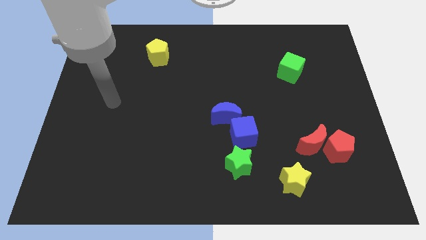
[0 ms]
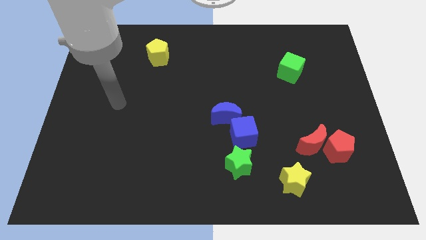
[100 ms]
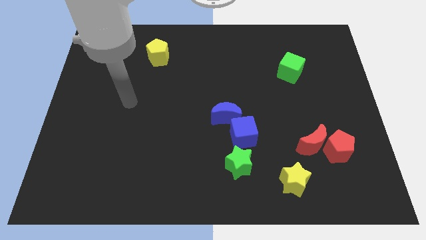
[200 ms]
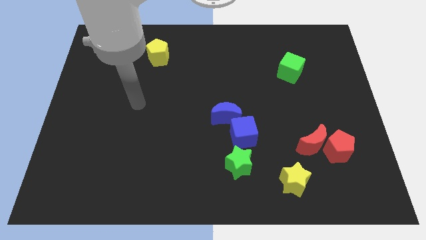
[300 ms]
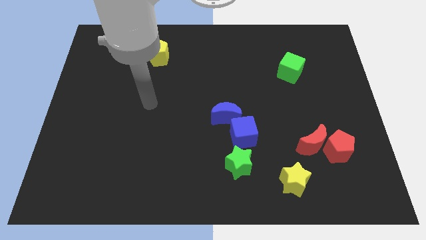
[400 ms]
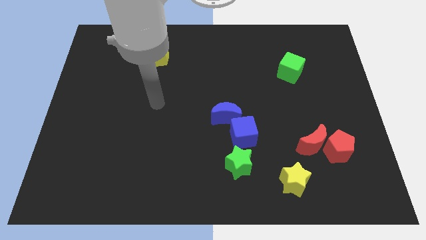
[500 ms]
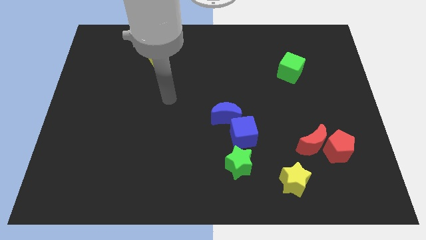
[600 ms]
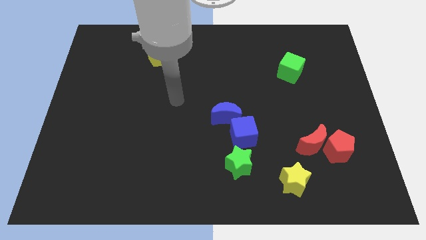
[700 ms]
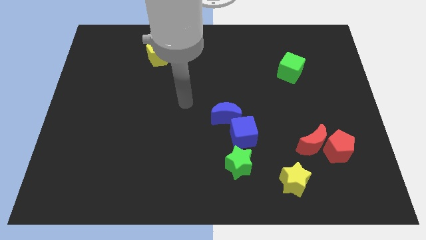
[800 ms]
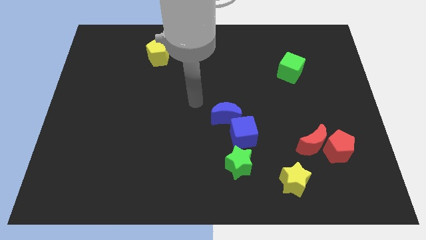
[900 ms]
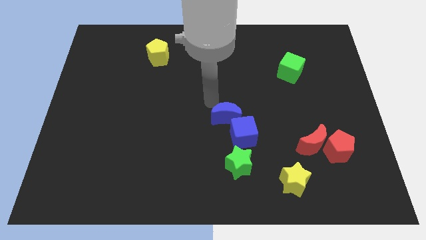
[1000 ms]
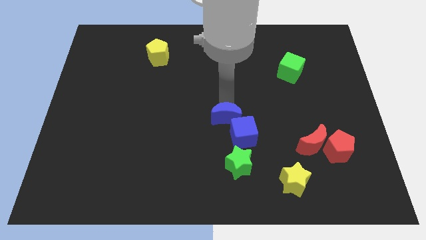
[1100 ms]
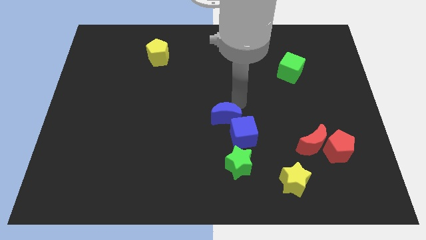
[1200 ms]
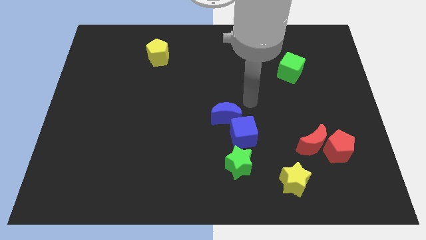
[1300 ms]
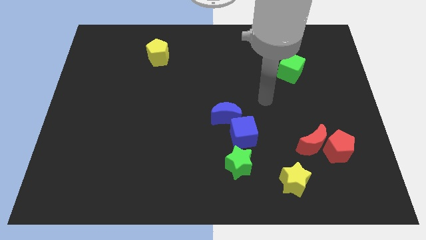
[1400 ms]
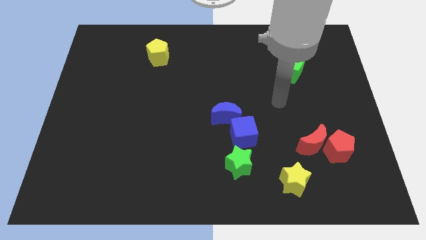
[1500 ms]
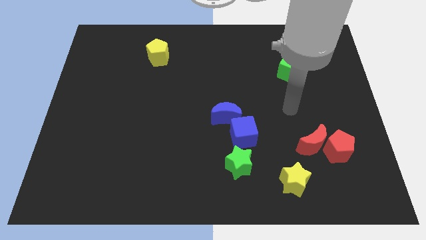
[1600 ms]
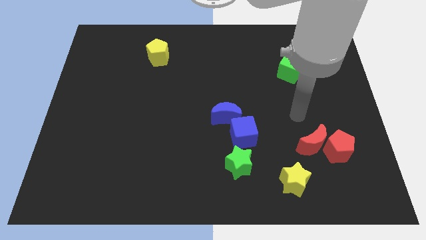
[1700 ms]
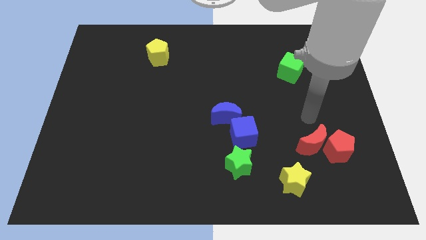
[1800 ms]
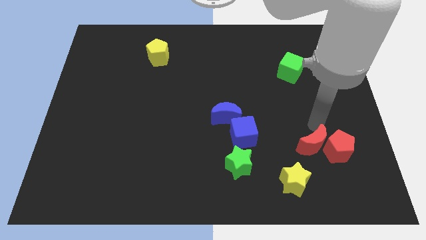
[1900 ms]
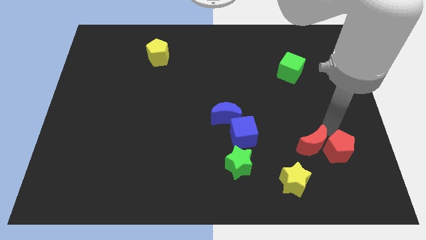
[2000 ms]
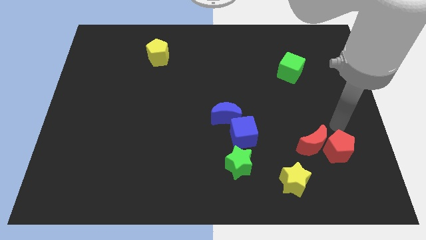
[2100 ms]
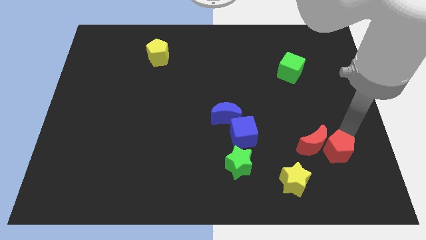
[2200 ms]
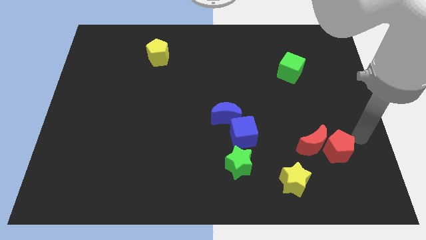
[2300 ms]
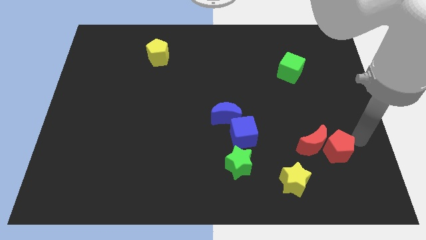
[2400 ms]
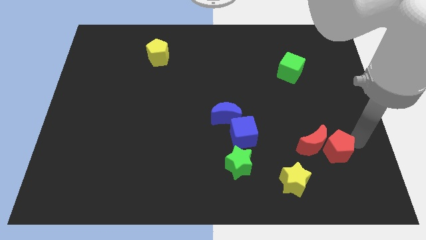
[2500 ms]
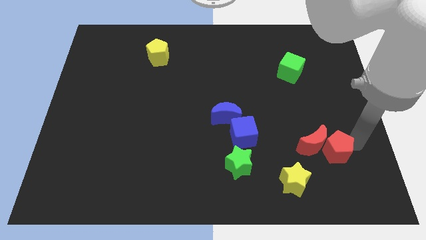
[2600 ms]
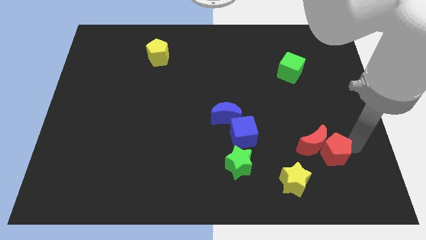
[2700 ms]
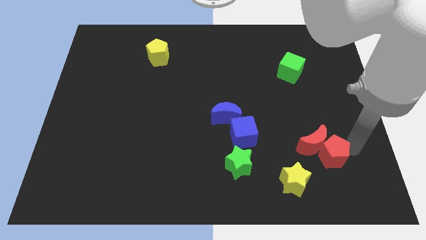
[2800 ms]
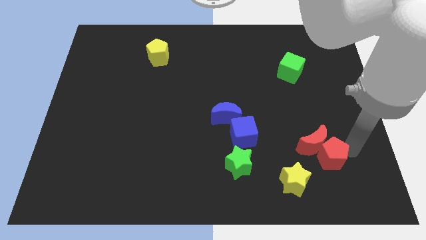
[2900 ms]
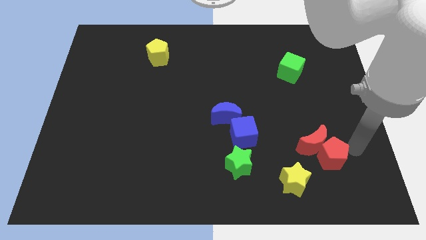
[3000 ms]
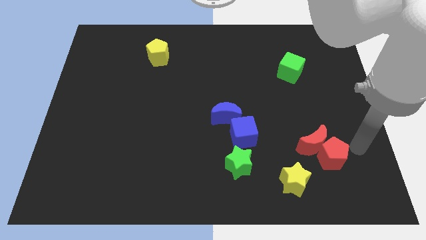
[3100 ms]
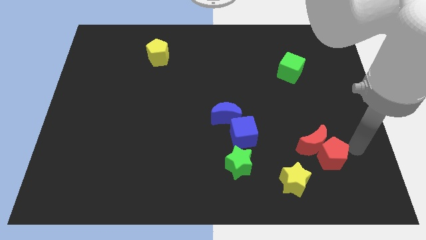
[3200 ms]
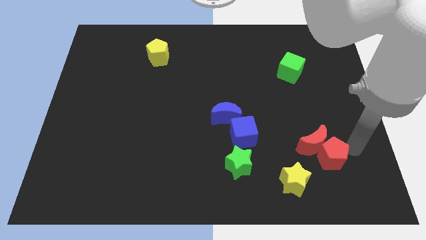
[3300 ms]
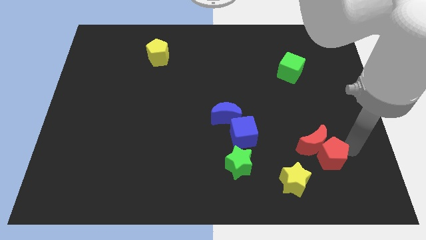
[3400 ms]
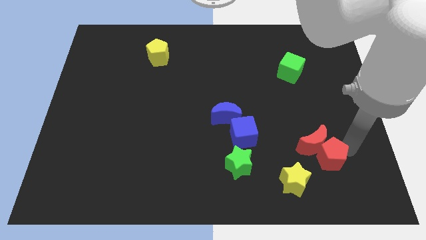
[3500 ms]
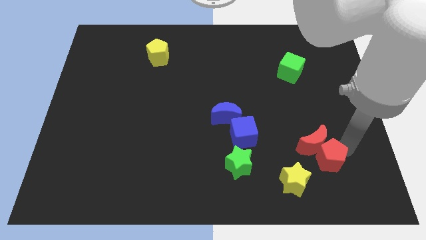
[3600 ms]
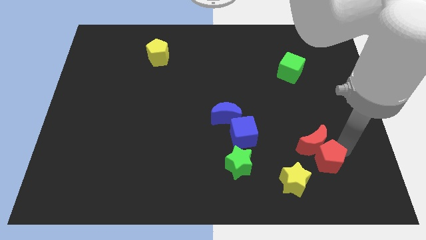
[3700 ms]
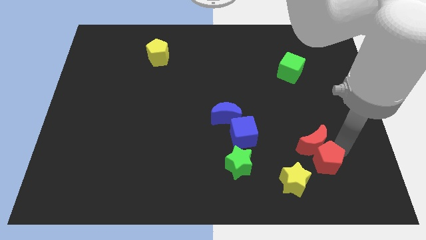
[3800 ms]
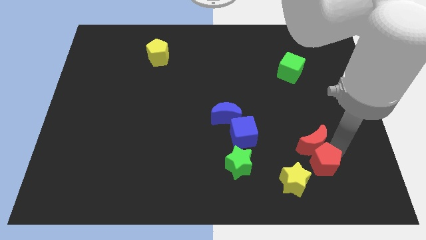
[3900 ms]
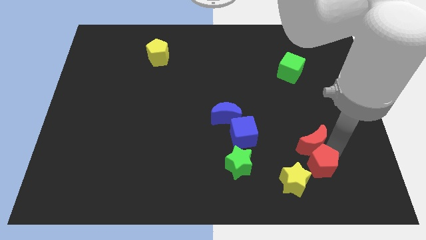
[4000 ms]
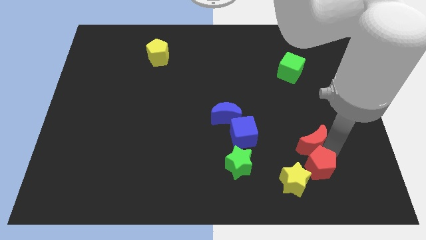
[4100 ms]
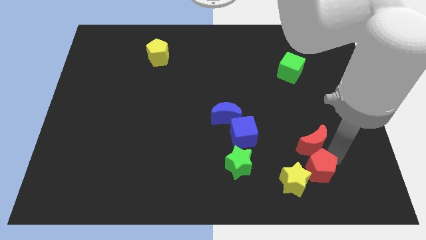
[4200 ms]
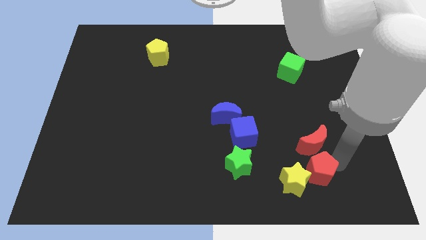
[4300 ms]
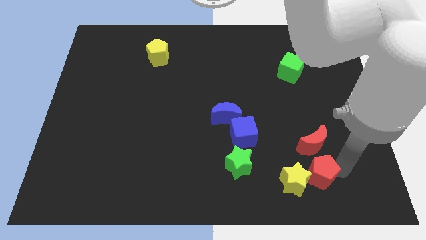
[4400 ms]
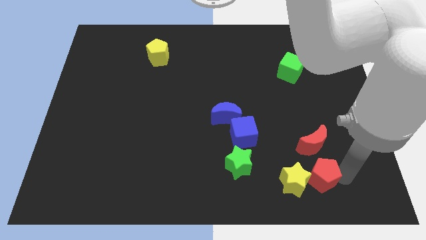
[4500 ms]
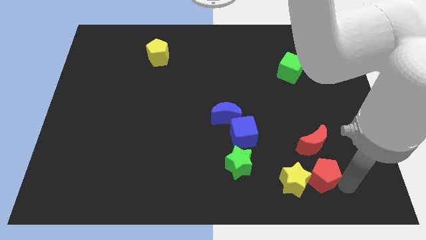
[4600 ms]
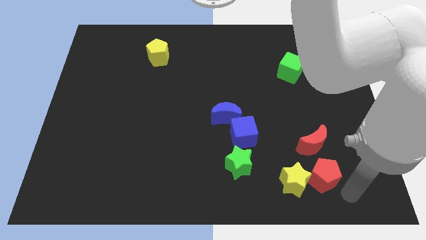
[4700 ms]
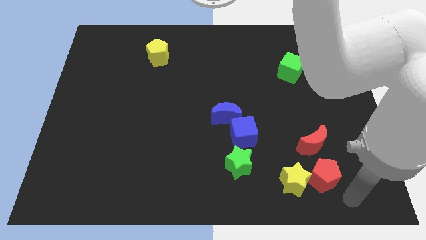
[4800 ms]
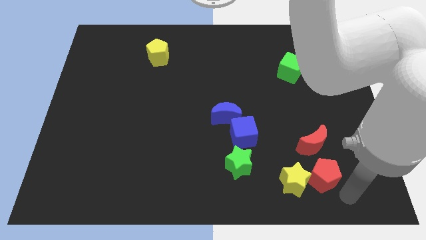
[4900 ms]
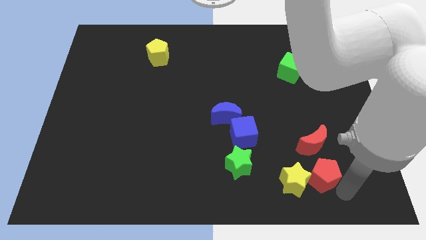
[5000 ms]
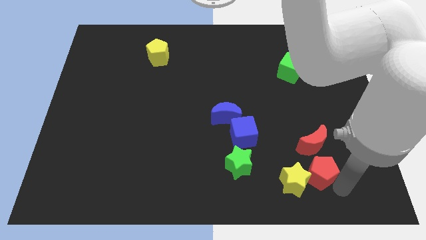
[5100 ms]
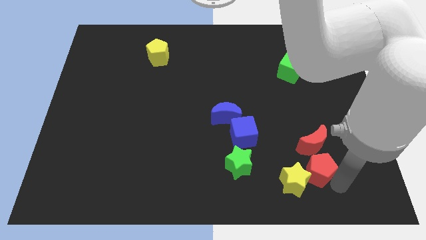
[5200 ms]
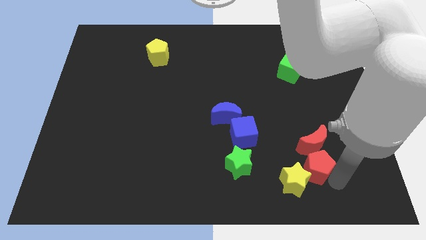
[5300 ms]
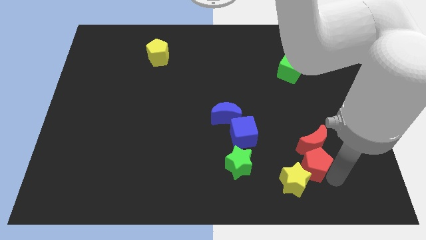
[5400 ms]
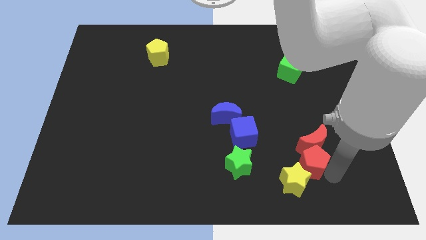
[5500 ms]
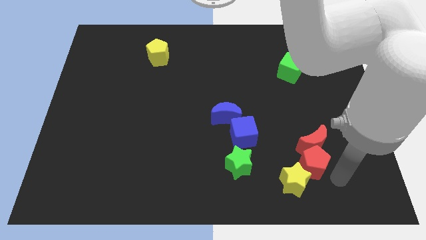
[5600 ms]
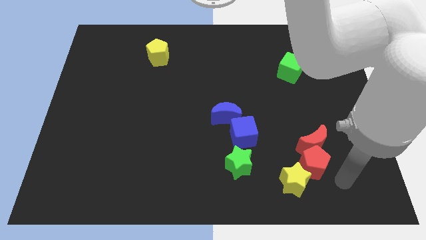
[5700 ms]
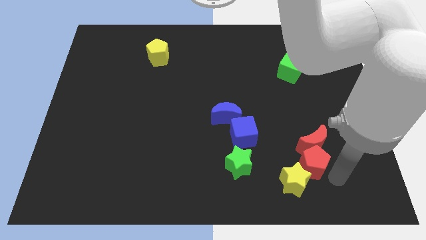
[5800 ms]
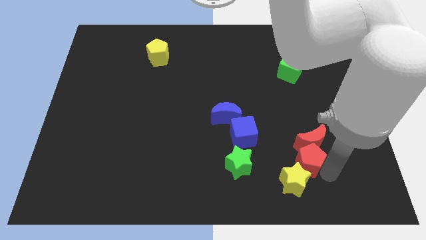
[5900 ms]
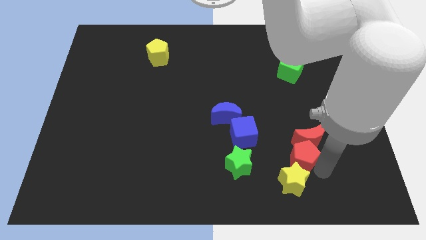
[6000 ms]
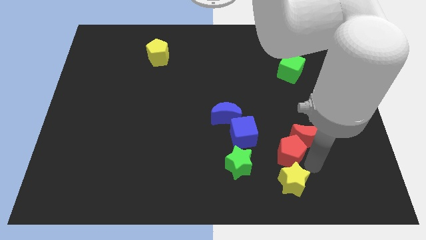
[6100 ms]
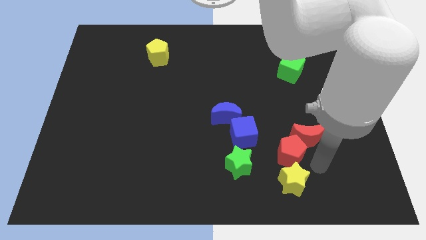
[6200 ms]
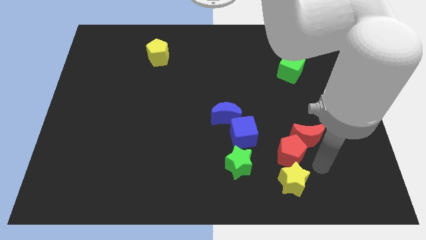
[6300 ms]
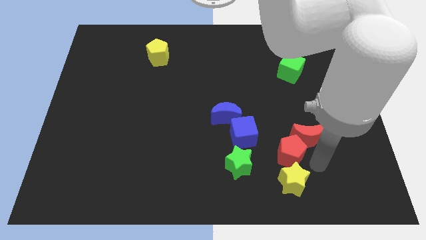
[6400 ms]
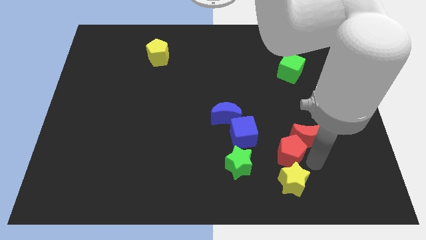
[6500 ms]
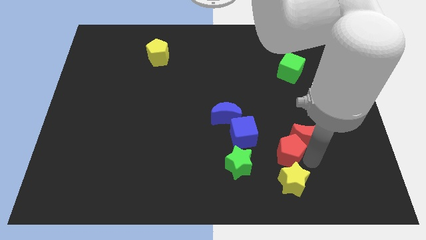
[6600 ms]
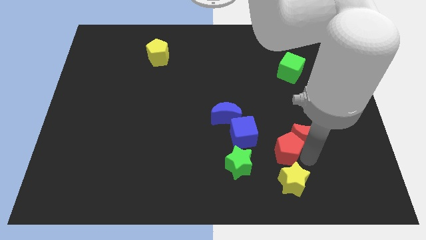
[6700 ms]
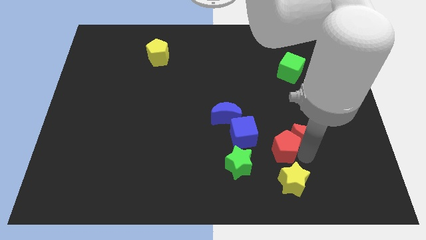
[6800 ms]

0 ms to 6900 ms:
slide the red pentagon to the top right of the green star

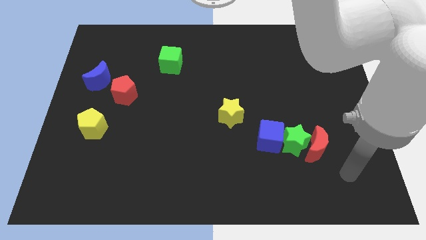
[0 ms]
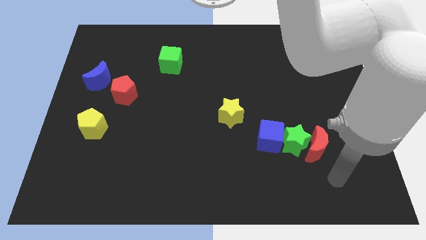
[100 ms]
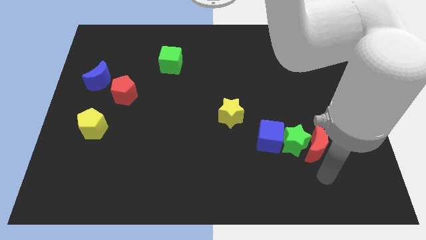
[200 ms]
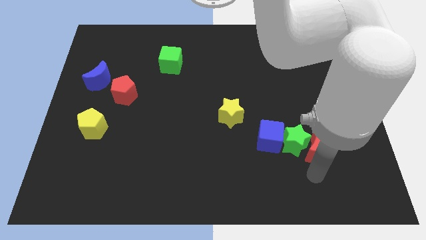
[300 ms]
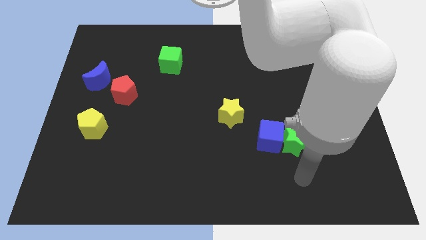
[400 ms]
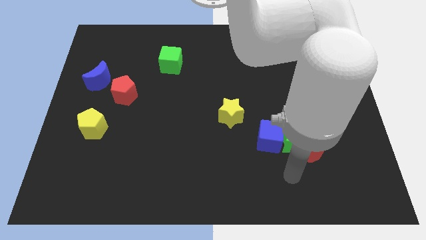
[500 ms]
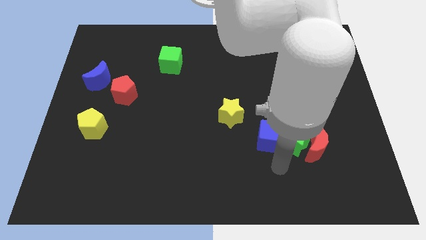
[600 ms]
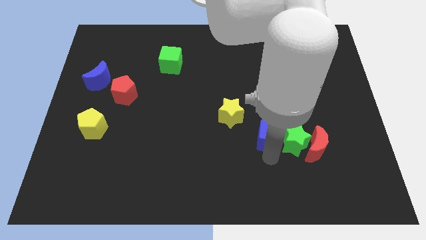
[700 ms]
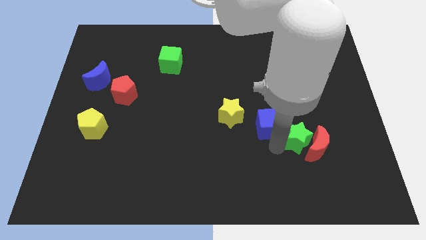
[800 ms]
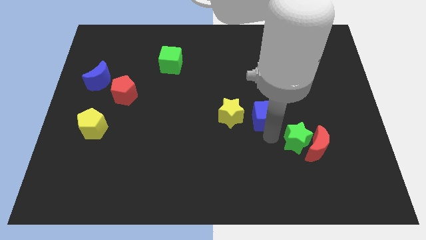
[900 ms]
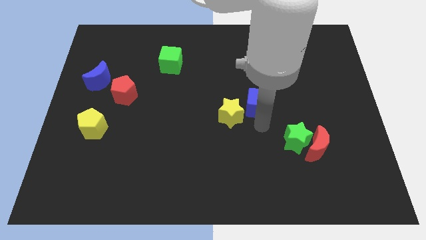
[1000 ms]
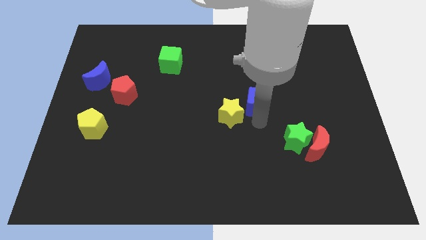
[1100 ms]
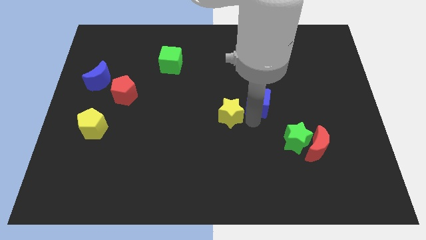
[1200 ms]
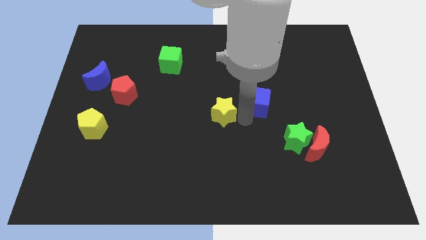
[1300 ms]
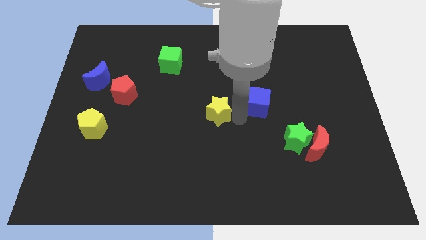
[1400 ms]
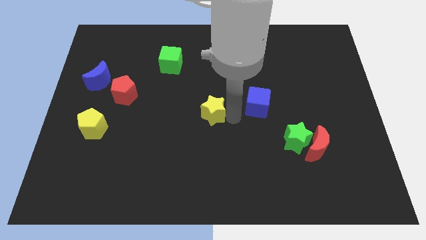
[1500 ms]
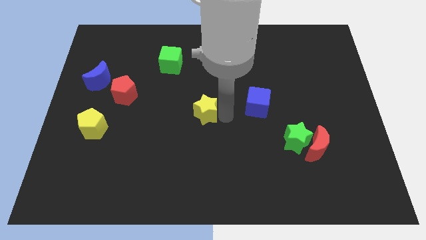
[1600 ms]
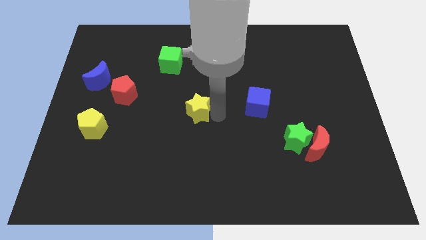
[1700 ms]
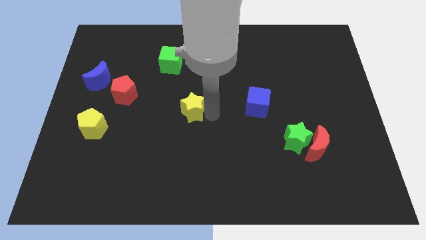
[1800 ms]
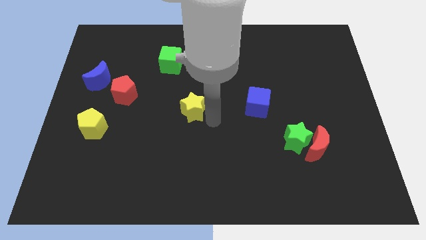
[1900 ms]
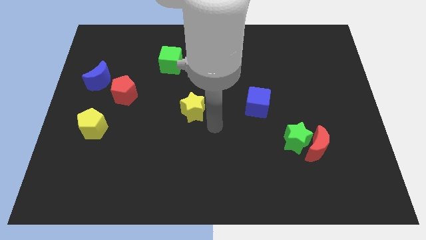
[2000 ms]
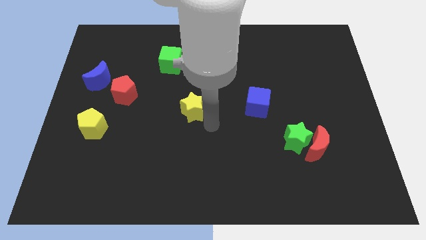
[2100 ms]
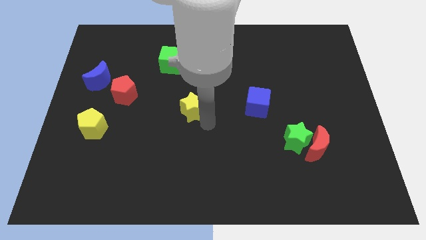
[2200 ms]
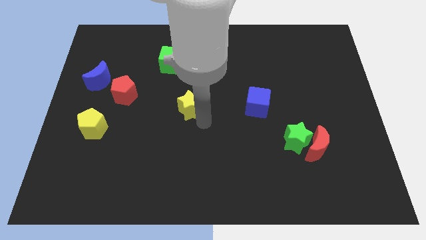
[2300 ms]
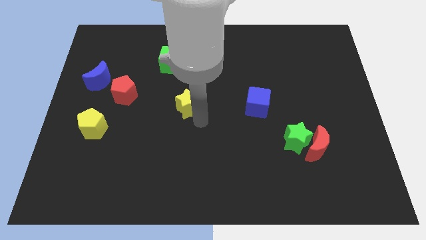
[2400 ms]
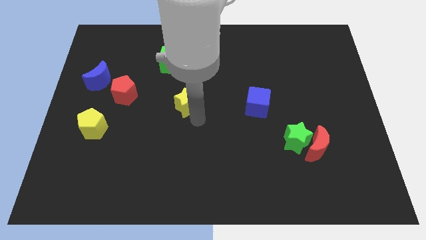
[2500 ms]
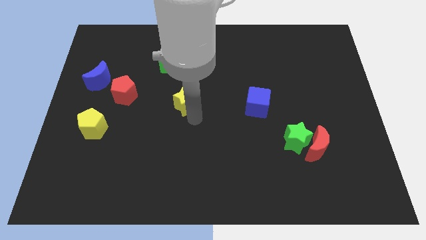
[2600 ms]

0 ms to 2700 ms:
move the yellow star right of the red pentagon
